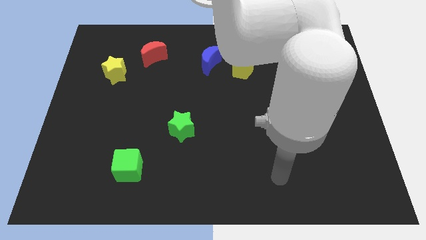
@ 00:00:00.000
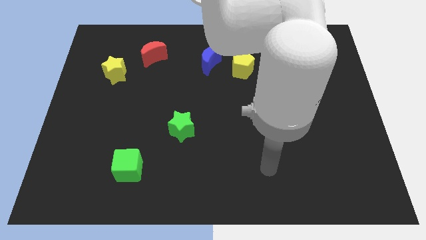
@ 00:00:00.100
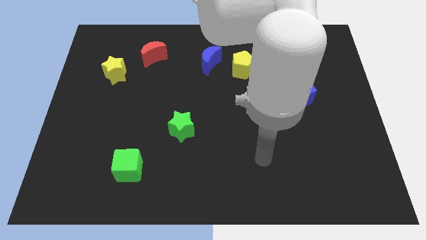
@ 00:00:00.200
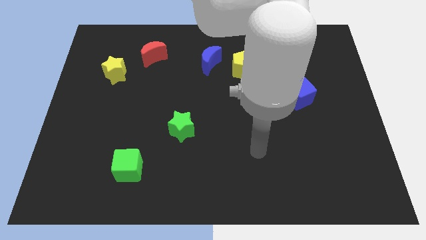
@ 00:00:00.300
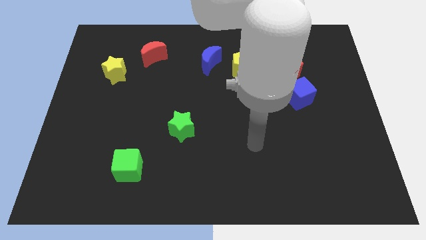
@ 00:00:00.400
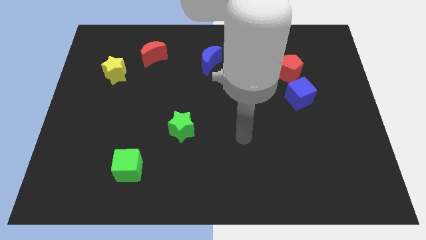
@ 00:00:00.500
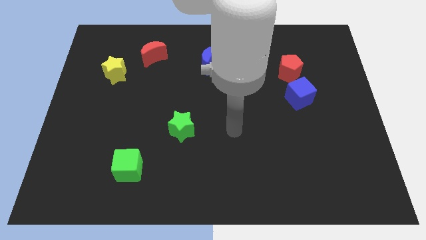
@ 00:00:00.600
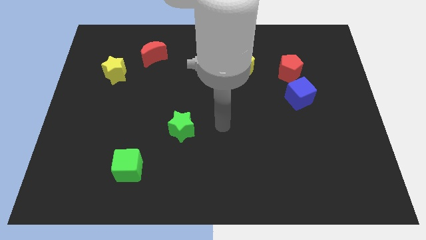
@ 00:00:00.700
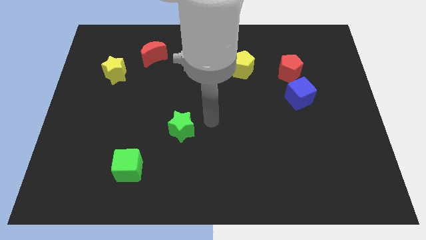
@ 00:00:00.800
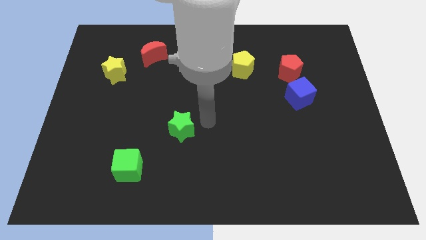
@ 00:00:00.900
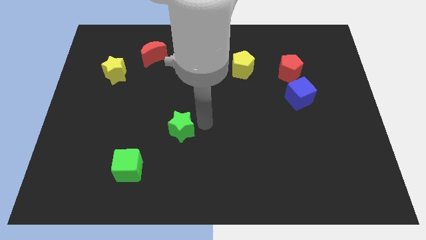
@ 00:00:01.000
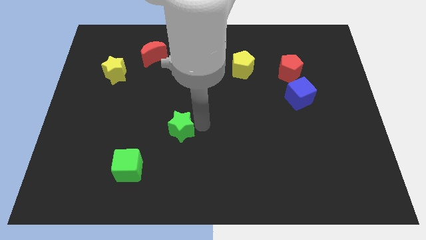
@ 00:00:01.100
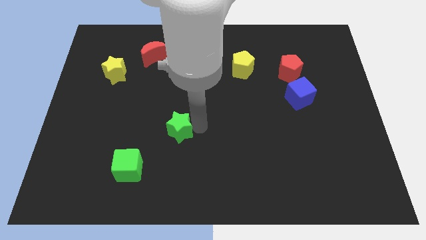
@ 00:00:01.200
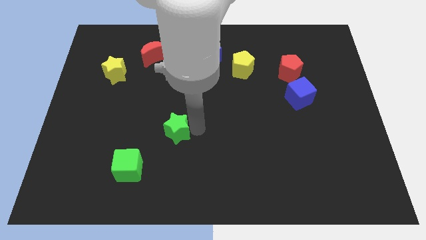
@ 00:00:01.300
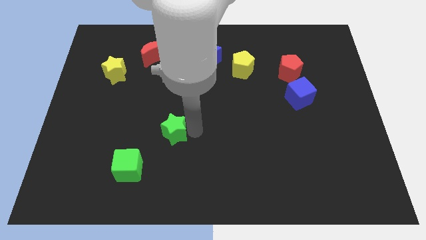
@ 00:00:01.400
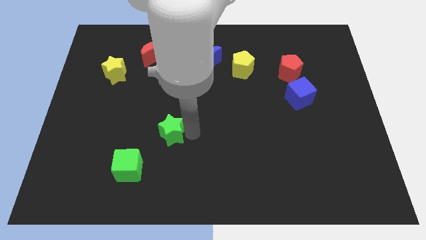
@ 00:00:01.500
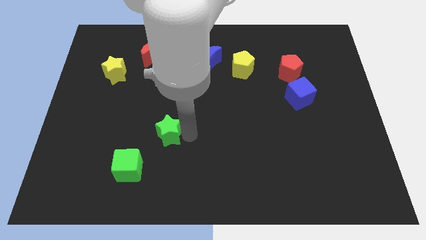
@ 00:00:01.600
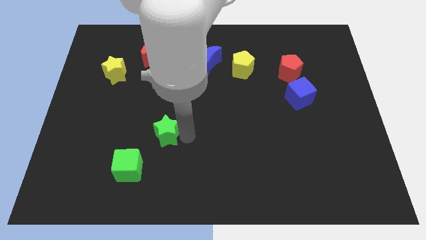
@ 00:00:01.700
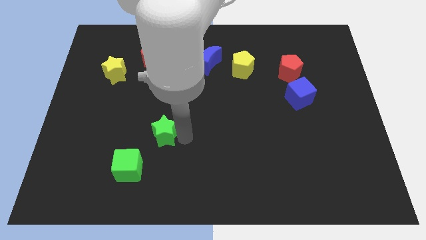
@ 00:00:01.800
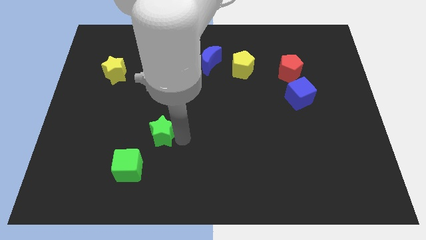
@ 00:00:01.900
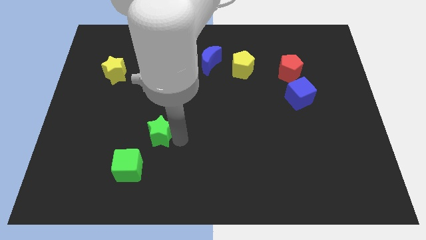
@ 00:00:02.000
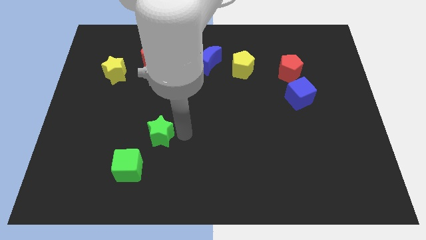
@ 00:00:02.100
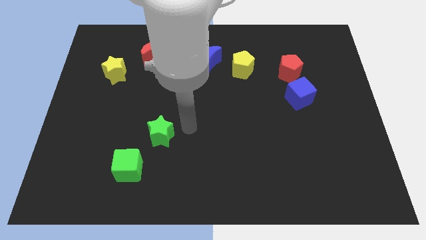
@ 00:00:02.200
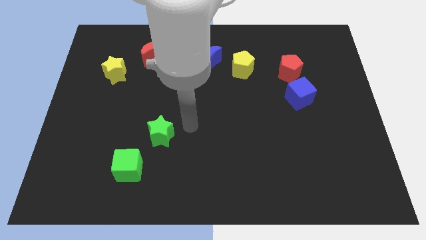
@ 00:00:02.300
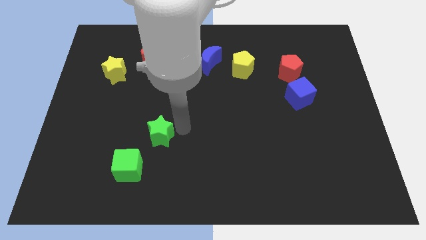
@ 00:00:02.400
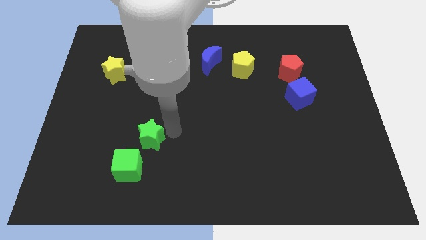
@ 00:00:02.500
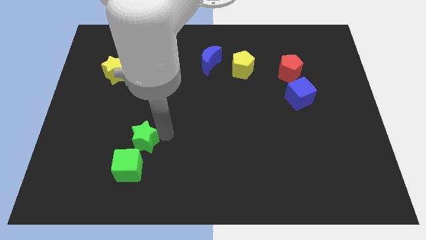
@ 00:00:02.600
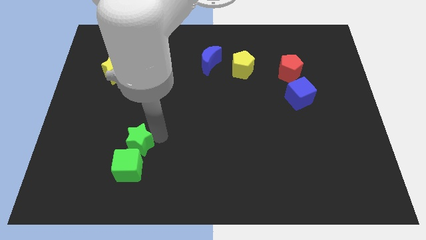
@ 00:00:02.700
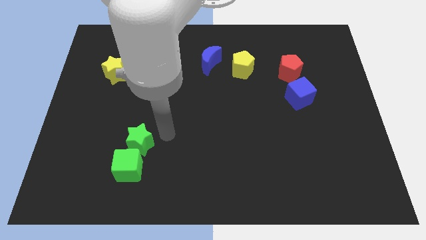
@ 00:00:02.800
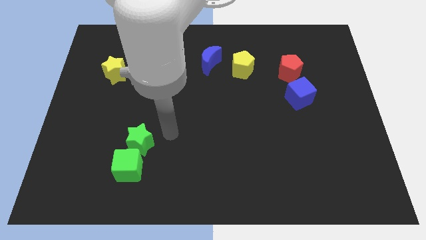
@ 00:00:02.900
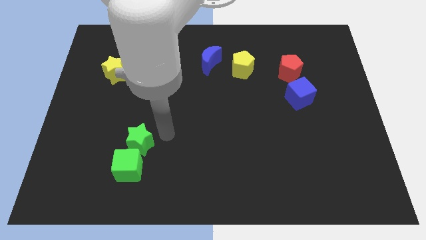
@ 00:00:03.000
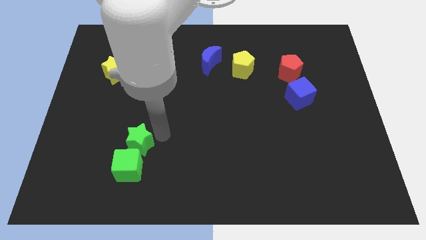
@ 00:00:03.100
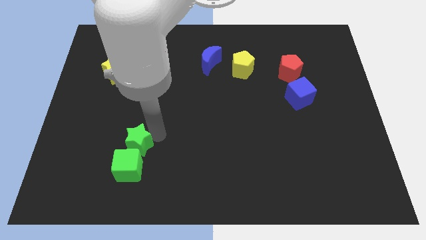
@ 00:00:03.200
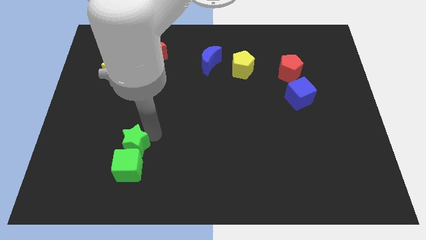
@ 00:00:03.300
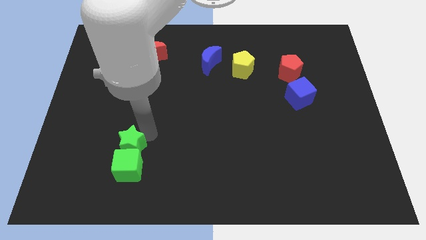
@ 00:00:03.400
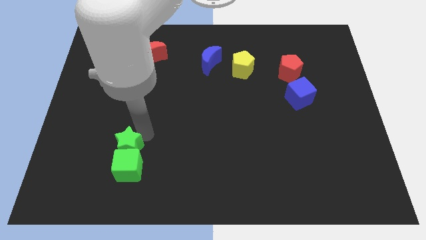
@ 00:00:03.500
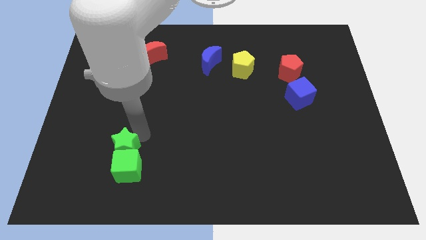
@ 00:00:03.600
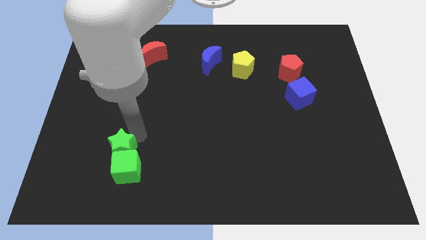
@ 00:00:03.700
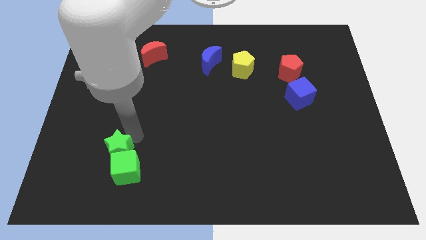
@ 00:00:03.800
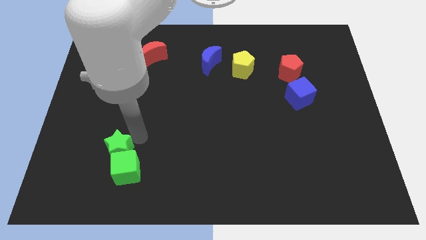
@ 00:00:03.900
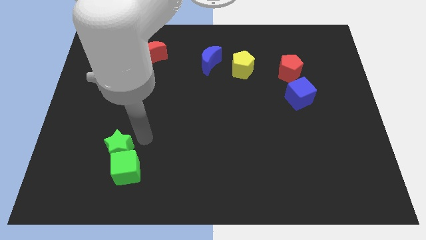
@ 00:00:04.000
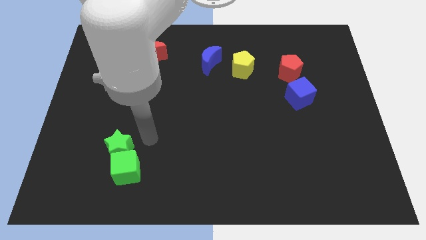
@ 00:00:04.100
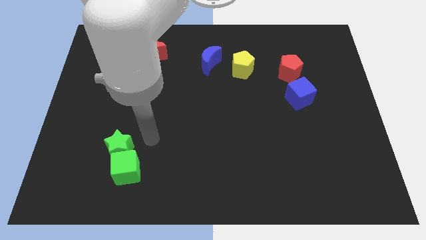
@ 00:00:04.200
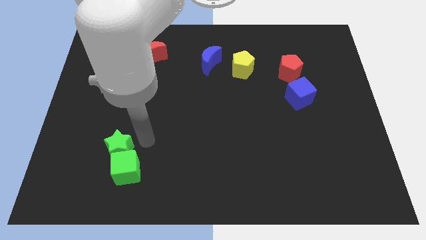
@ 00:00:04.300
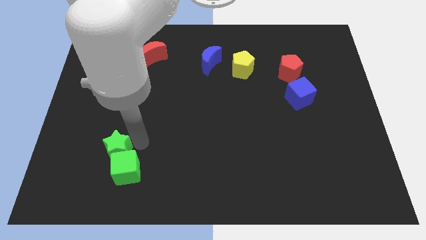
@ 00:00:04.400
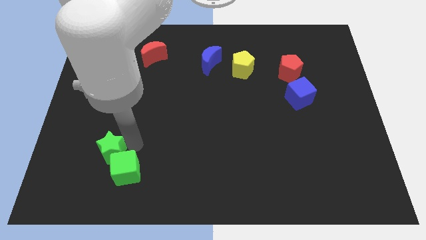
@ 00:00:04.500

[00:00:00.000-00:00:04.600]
move the green star just left of the green cube

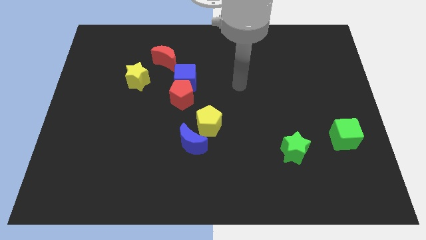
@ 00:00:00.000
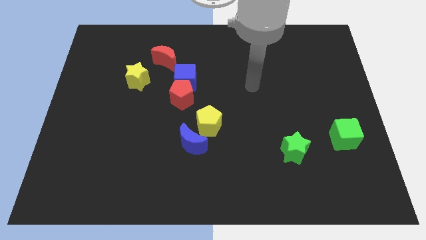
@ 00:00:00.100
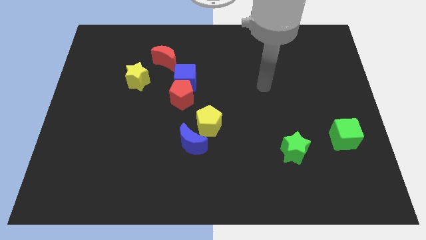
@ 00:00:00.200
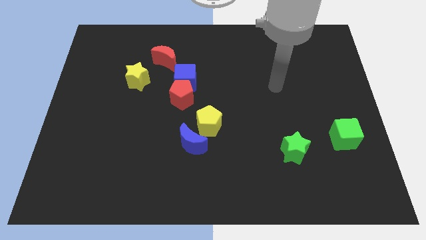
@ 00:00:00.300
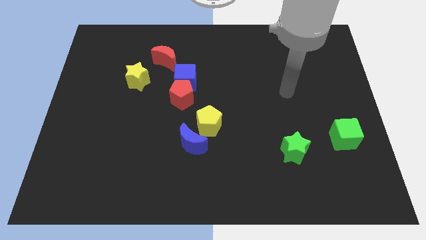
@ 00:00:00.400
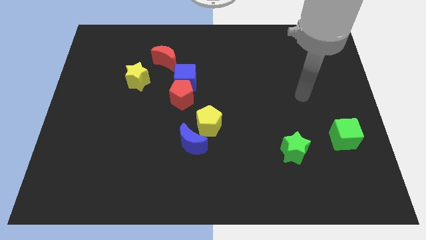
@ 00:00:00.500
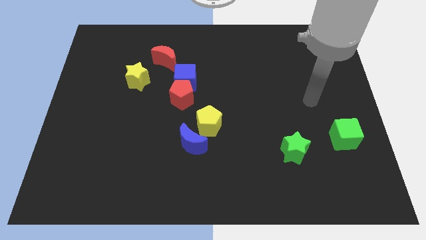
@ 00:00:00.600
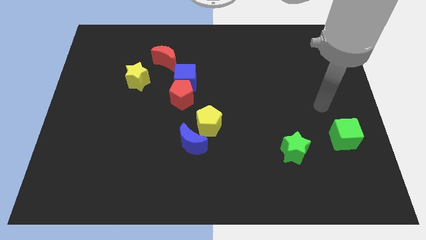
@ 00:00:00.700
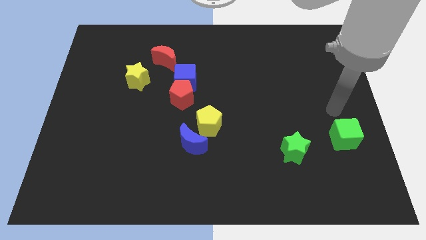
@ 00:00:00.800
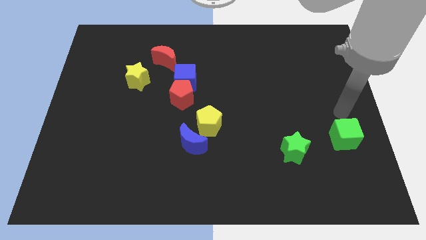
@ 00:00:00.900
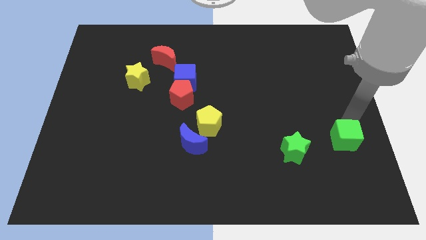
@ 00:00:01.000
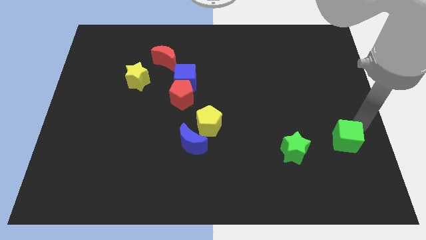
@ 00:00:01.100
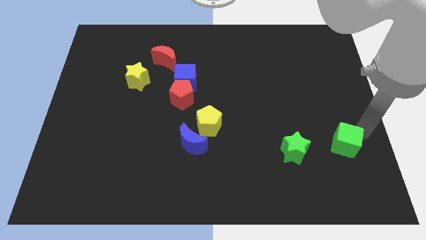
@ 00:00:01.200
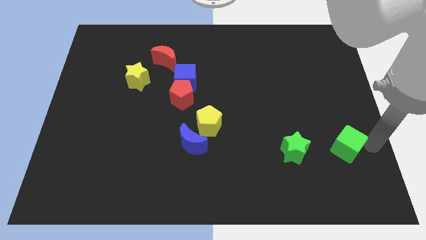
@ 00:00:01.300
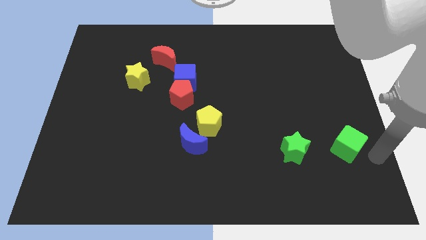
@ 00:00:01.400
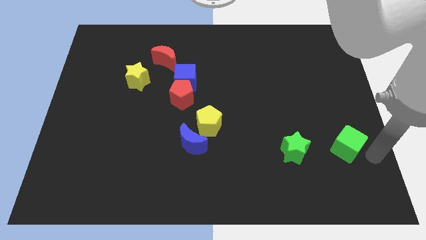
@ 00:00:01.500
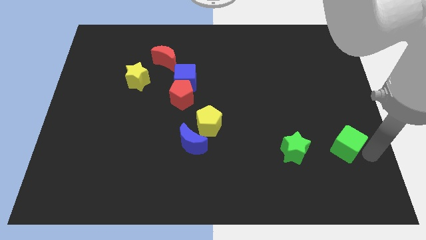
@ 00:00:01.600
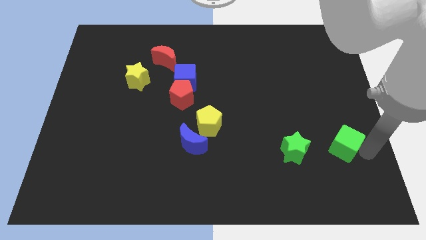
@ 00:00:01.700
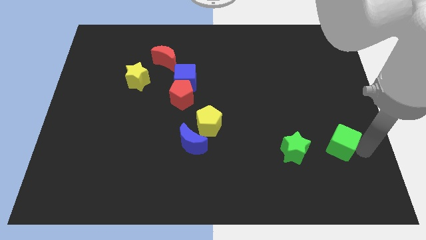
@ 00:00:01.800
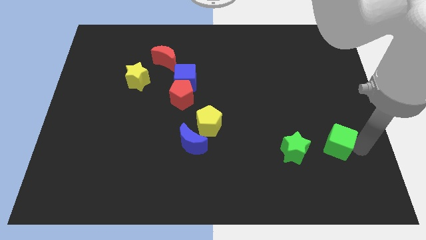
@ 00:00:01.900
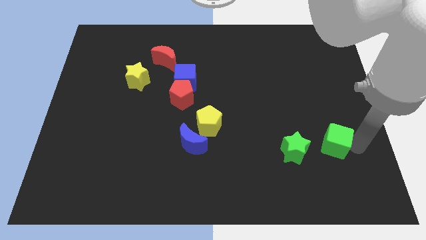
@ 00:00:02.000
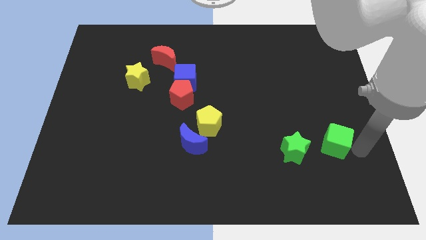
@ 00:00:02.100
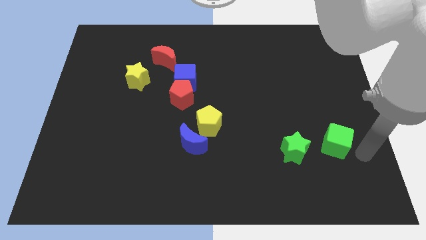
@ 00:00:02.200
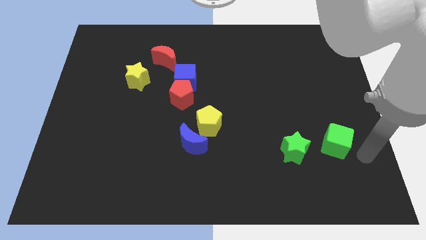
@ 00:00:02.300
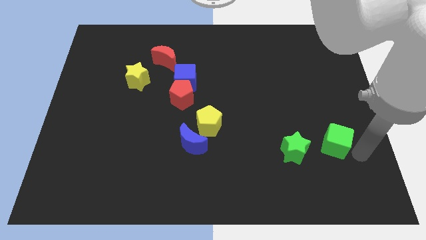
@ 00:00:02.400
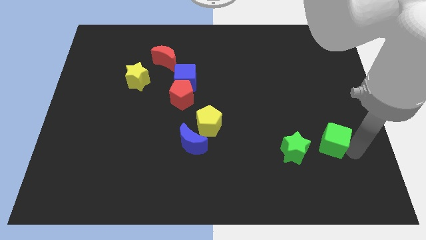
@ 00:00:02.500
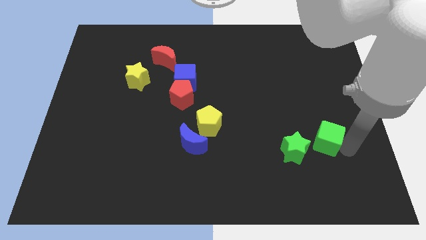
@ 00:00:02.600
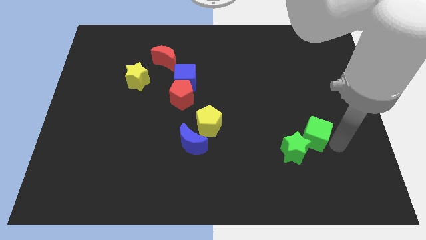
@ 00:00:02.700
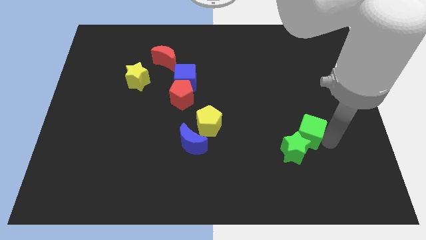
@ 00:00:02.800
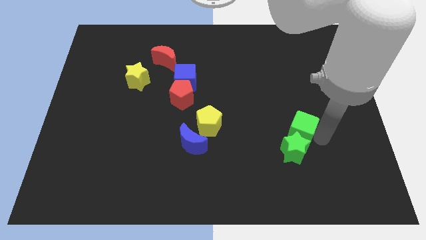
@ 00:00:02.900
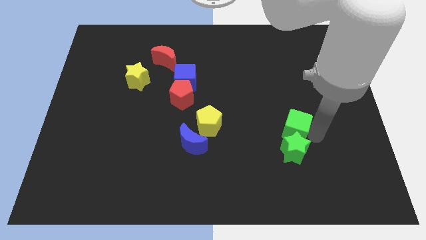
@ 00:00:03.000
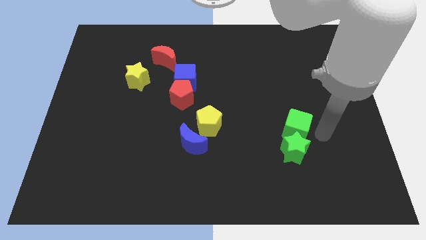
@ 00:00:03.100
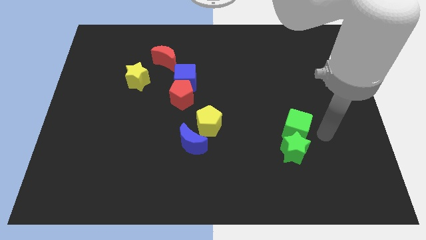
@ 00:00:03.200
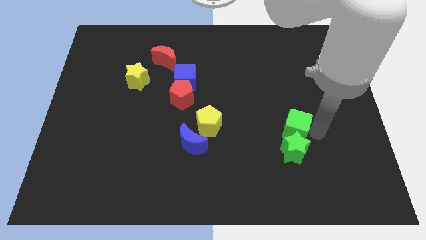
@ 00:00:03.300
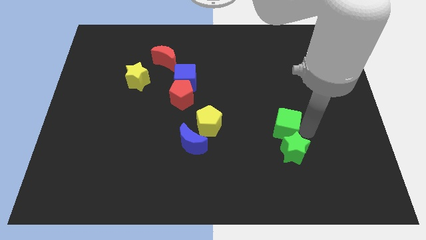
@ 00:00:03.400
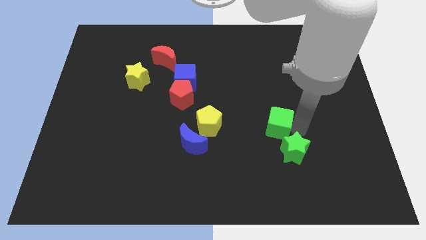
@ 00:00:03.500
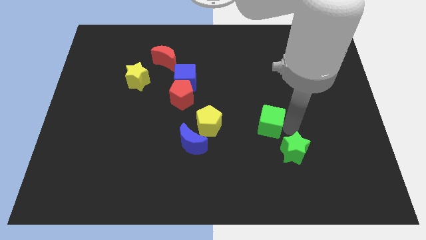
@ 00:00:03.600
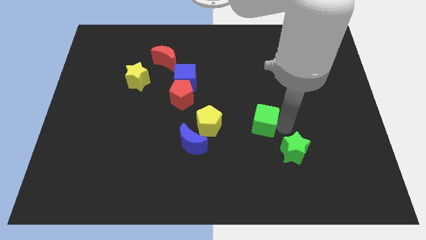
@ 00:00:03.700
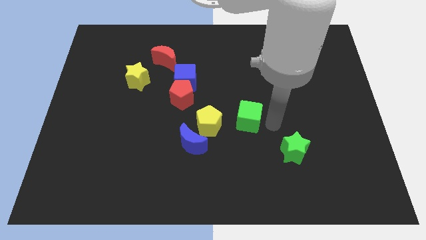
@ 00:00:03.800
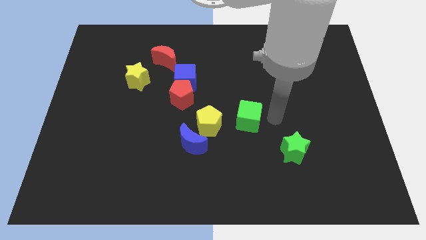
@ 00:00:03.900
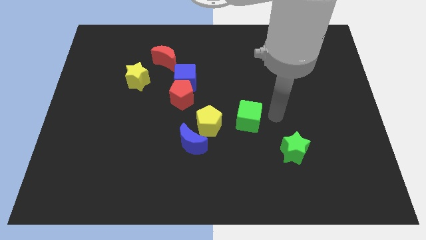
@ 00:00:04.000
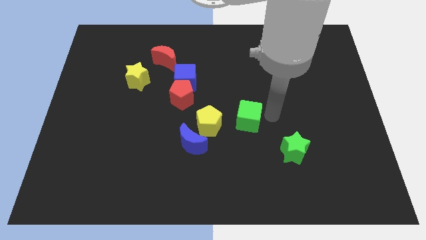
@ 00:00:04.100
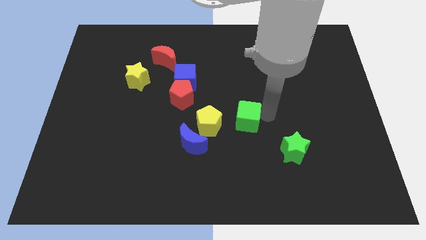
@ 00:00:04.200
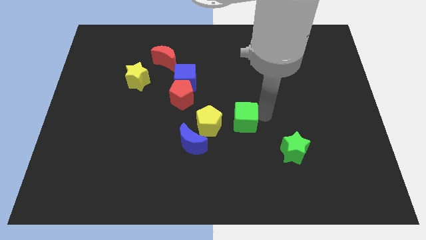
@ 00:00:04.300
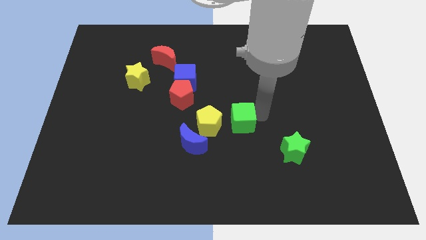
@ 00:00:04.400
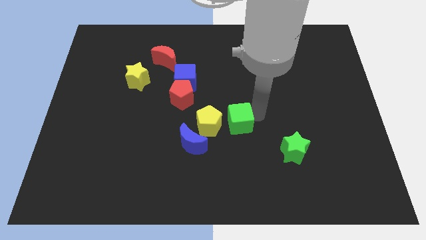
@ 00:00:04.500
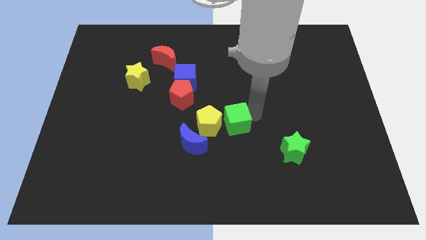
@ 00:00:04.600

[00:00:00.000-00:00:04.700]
put the green cube to the top right of the blue moon
